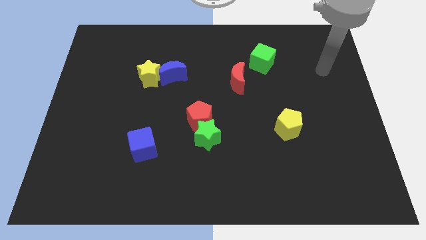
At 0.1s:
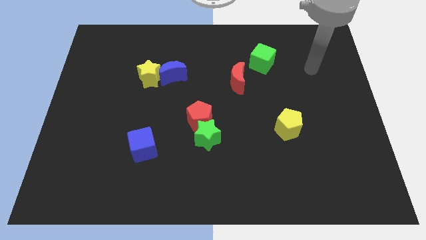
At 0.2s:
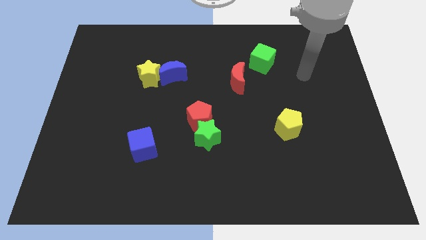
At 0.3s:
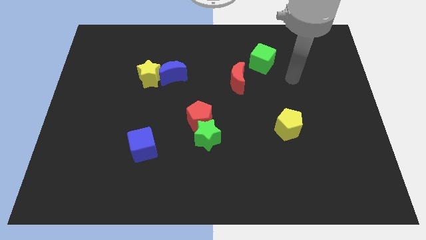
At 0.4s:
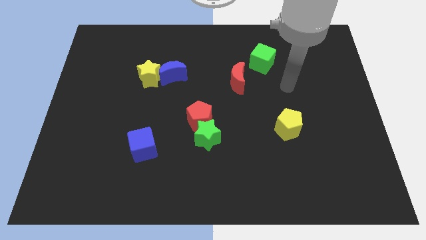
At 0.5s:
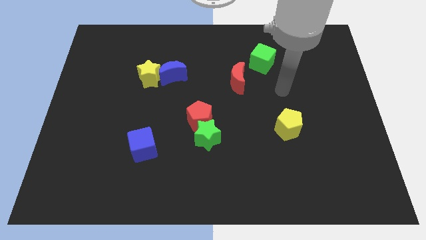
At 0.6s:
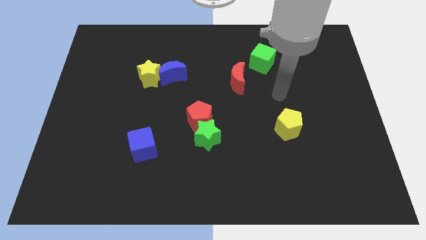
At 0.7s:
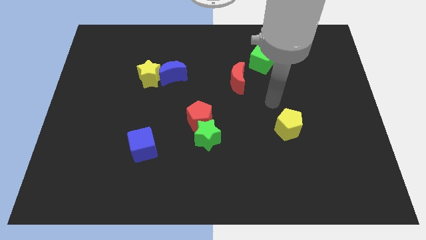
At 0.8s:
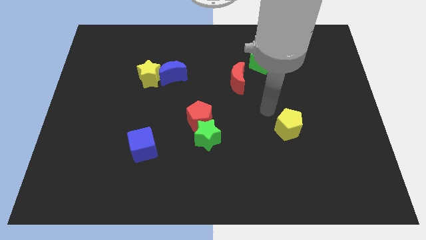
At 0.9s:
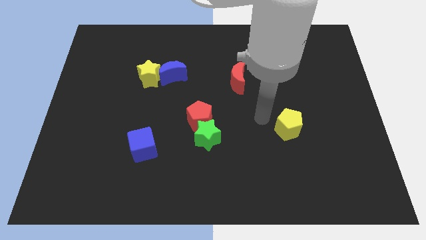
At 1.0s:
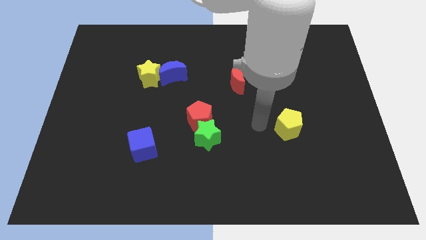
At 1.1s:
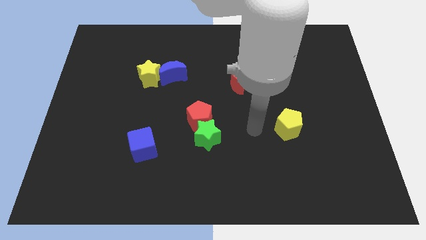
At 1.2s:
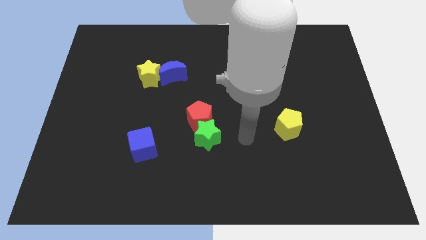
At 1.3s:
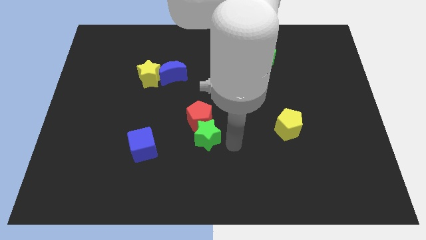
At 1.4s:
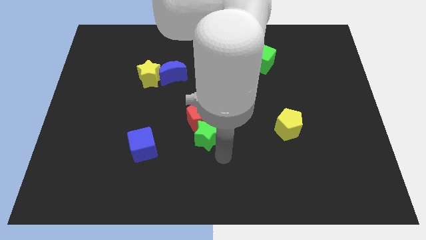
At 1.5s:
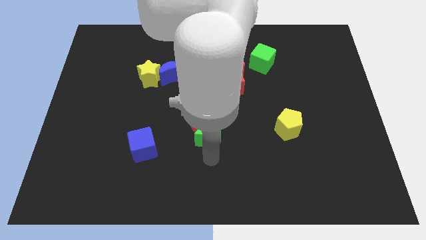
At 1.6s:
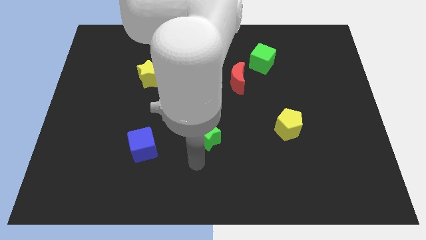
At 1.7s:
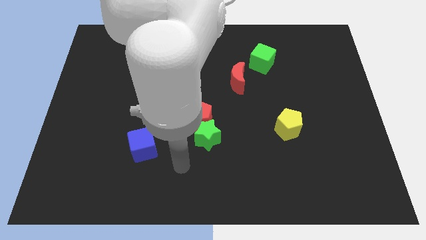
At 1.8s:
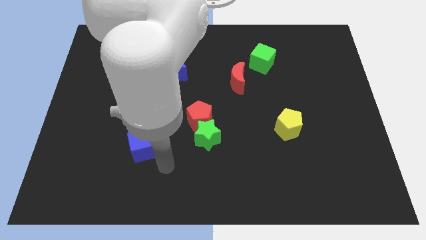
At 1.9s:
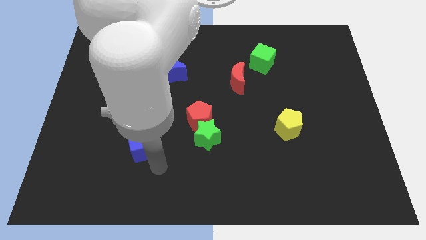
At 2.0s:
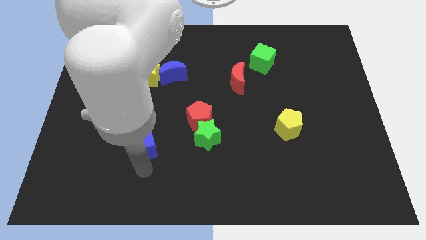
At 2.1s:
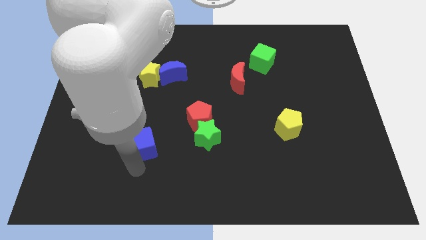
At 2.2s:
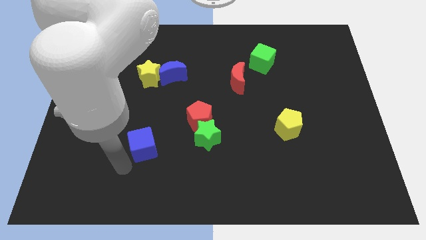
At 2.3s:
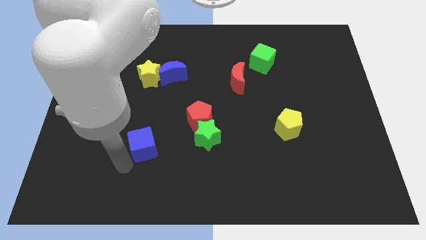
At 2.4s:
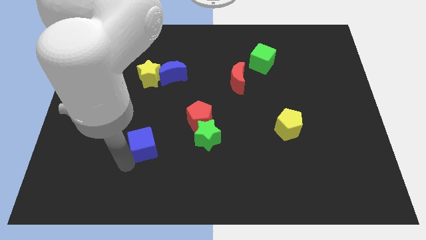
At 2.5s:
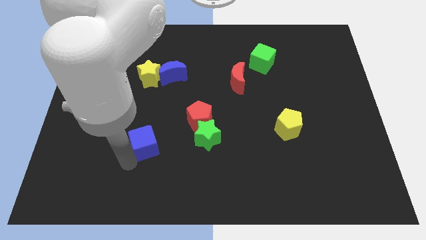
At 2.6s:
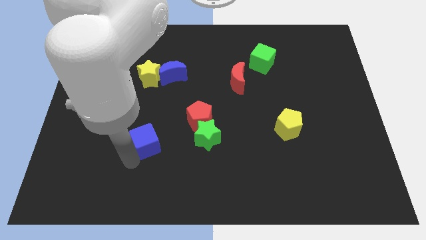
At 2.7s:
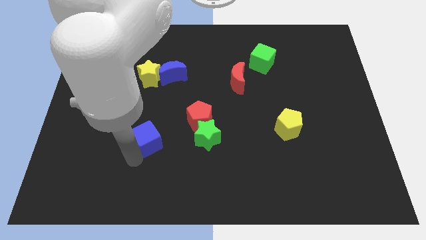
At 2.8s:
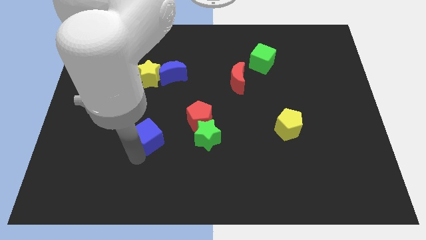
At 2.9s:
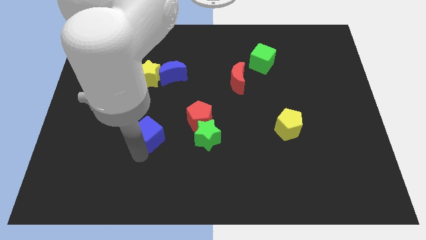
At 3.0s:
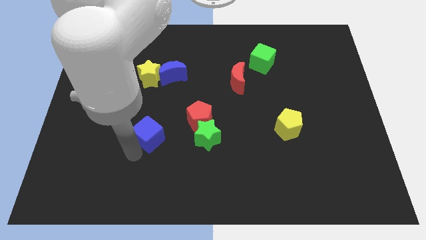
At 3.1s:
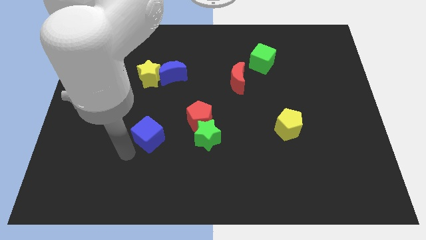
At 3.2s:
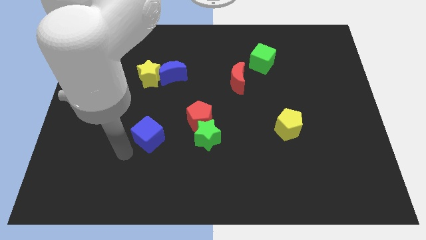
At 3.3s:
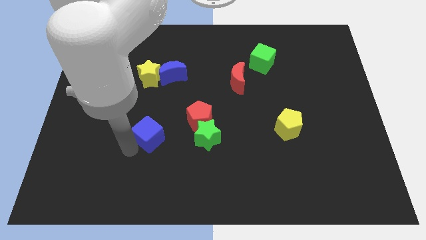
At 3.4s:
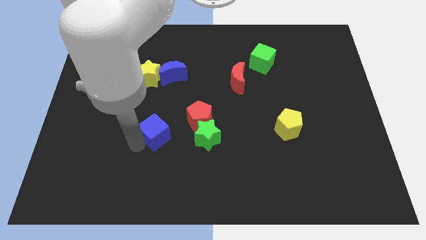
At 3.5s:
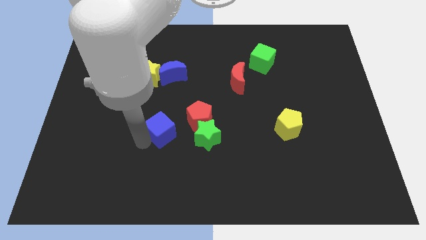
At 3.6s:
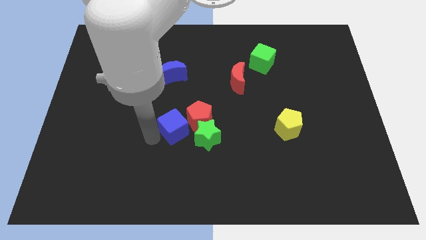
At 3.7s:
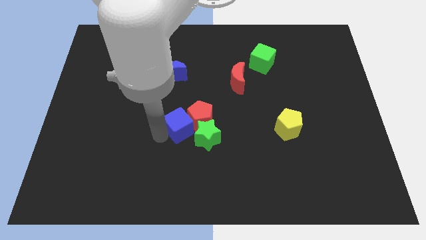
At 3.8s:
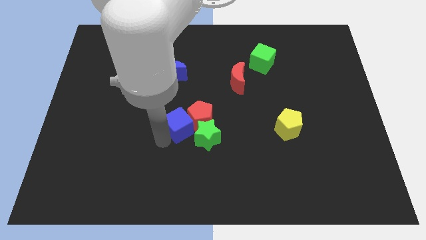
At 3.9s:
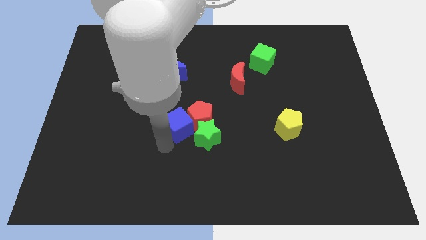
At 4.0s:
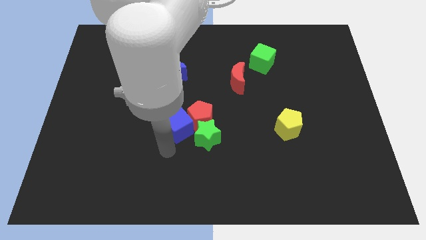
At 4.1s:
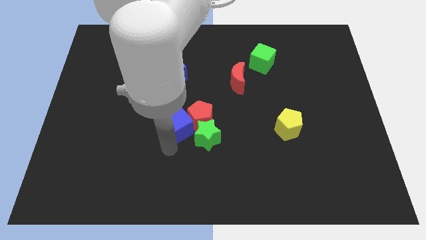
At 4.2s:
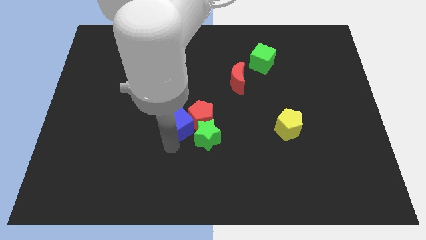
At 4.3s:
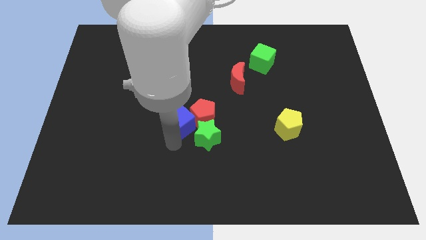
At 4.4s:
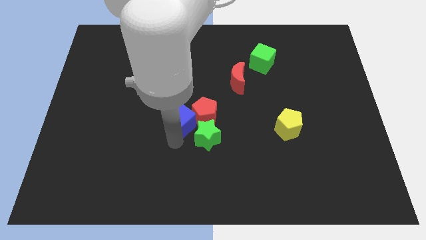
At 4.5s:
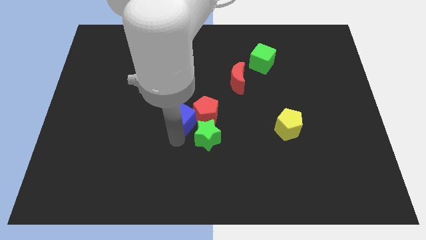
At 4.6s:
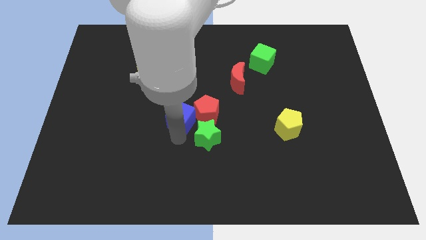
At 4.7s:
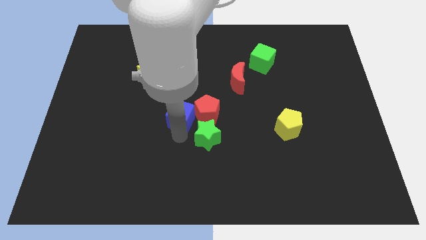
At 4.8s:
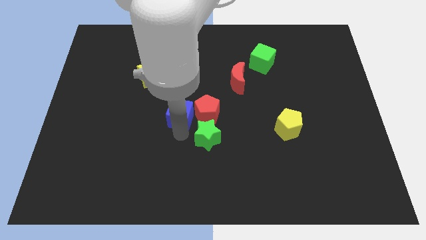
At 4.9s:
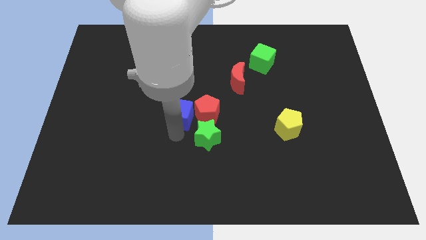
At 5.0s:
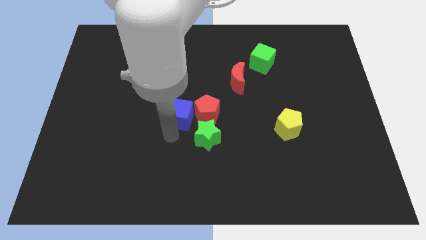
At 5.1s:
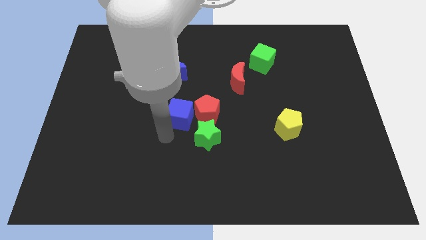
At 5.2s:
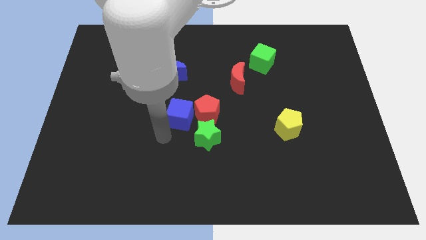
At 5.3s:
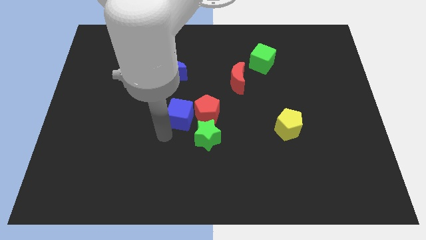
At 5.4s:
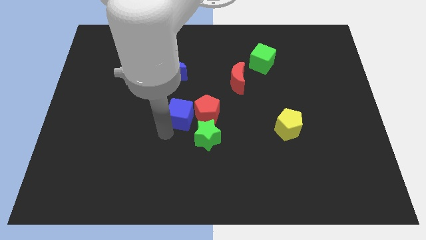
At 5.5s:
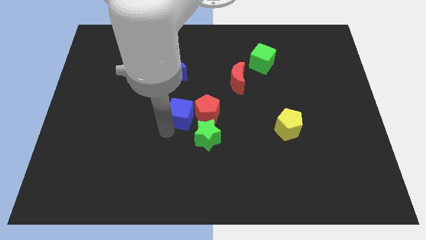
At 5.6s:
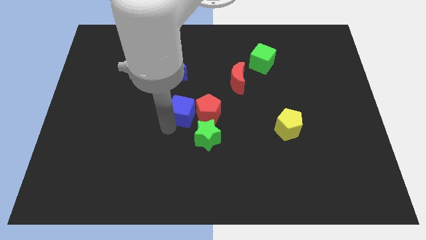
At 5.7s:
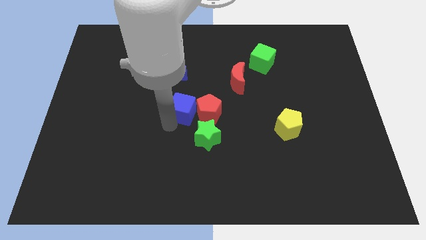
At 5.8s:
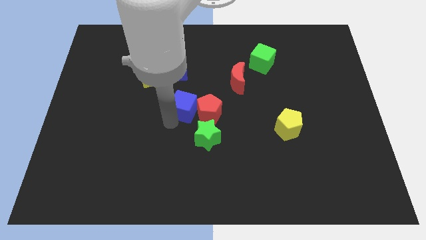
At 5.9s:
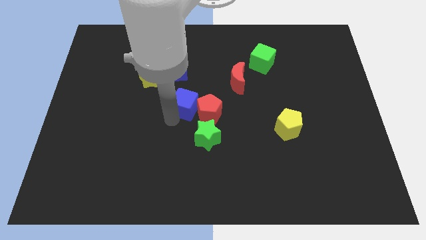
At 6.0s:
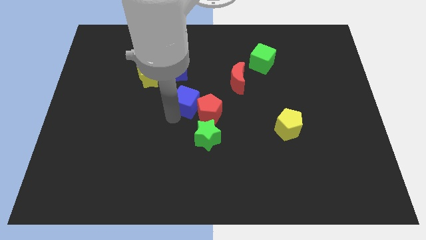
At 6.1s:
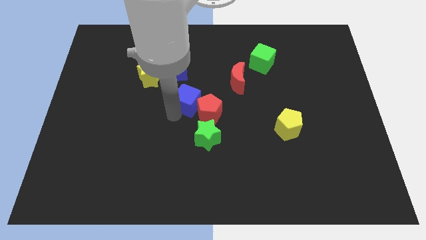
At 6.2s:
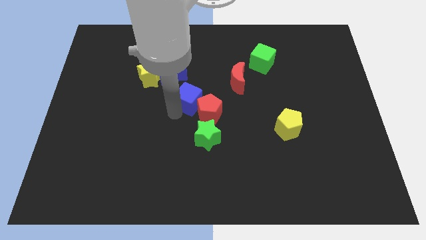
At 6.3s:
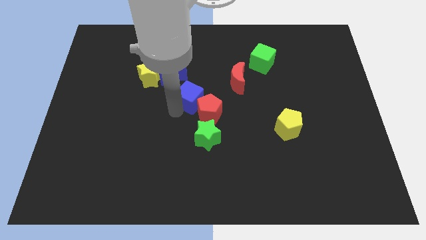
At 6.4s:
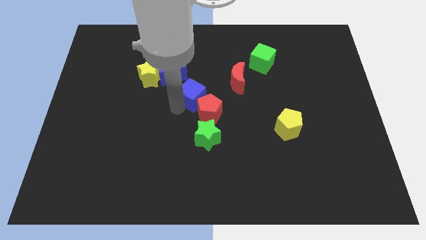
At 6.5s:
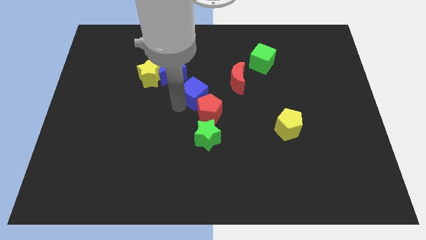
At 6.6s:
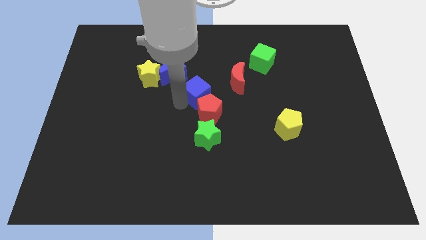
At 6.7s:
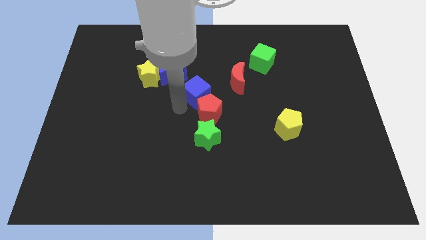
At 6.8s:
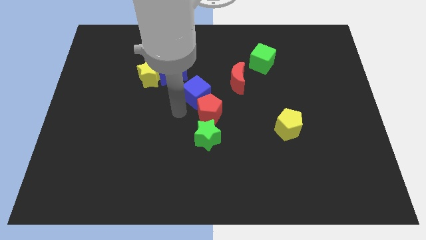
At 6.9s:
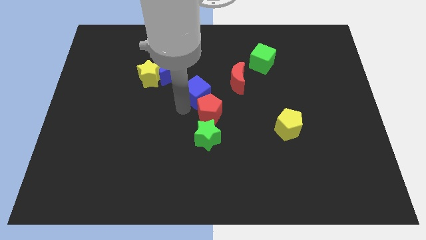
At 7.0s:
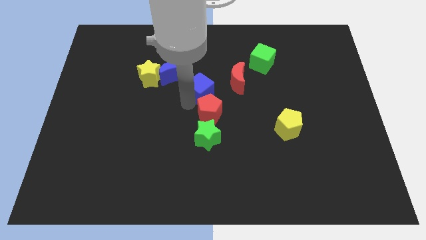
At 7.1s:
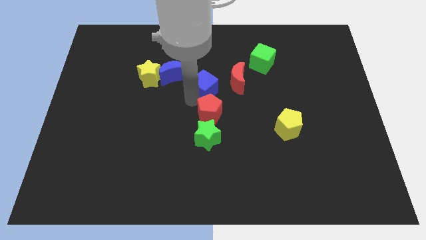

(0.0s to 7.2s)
slide the blue cube upwards and to the right

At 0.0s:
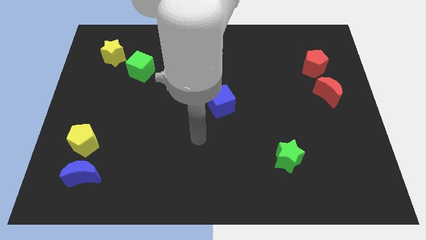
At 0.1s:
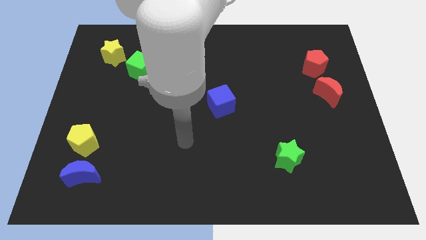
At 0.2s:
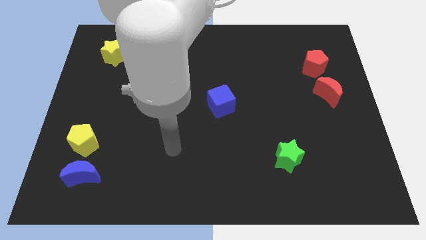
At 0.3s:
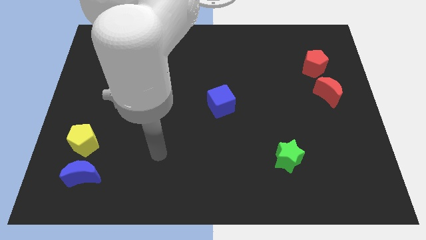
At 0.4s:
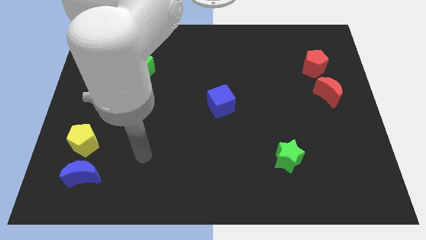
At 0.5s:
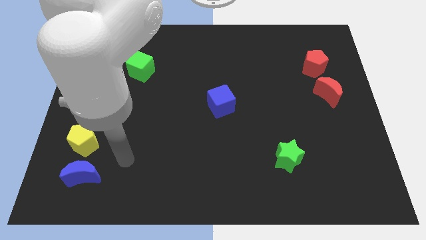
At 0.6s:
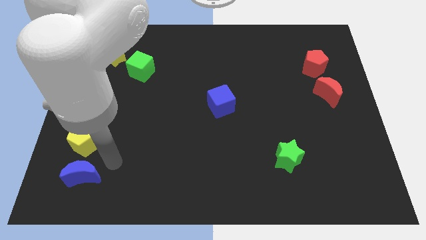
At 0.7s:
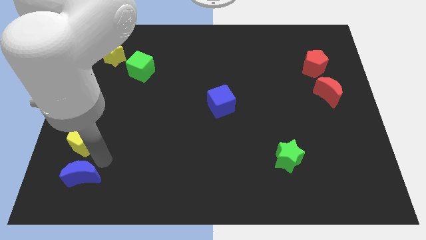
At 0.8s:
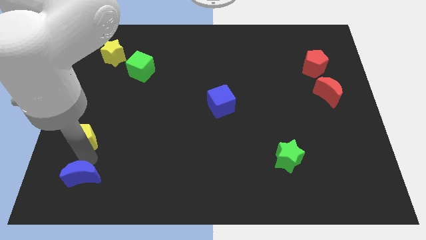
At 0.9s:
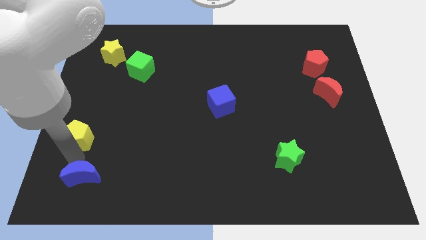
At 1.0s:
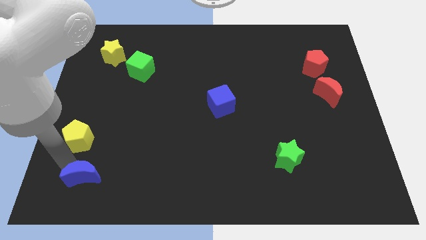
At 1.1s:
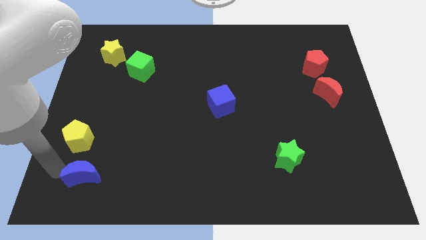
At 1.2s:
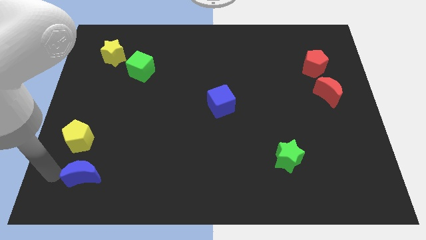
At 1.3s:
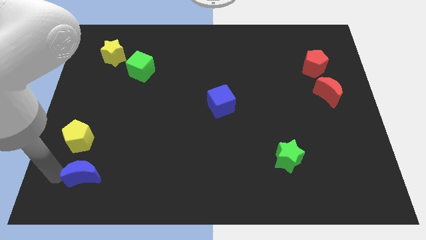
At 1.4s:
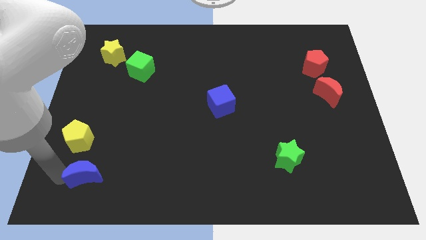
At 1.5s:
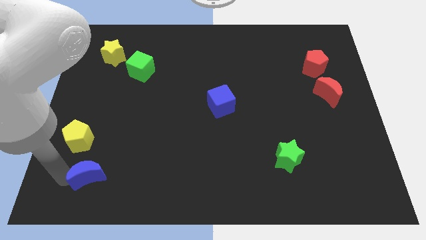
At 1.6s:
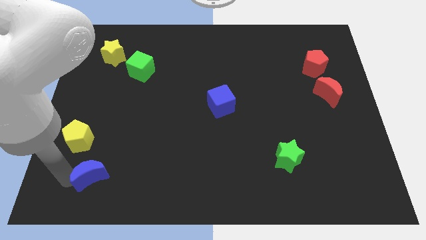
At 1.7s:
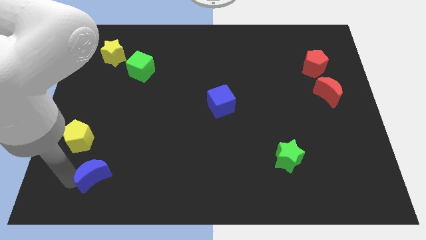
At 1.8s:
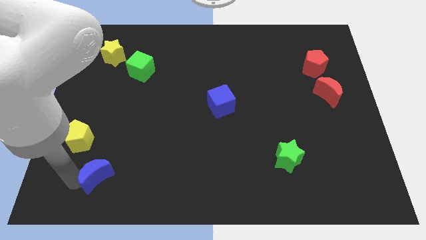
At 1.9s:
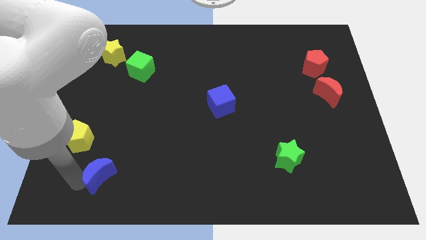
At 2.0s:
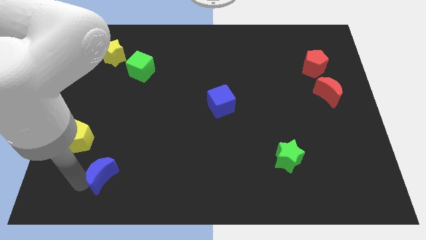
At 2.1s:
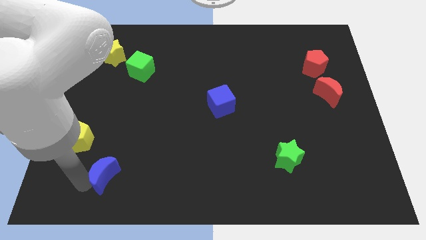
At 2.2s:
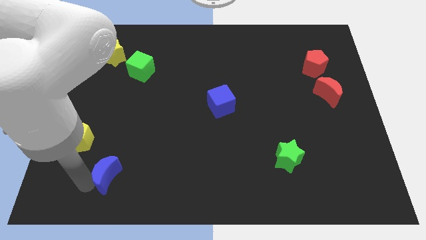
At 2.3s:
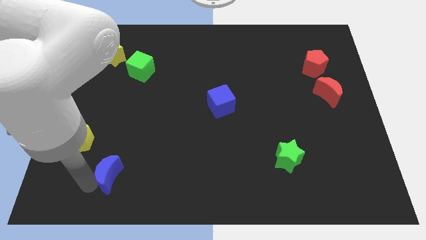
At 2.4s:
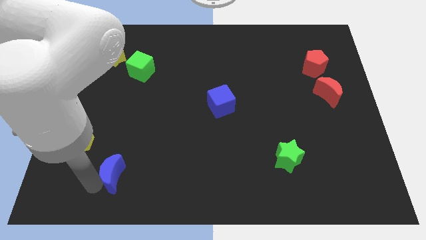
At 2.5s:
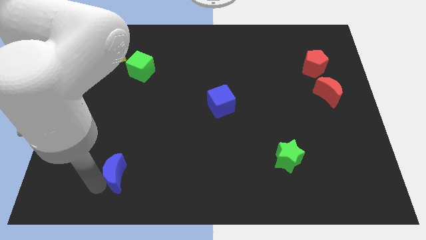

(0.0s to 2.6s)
push the blue moon a little bit to the right
